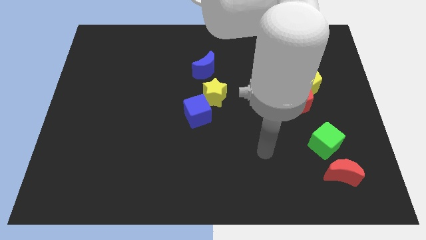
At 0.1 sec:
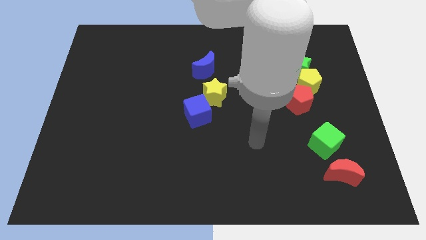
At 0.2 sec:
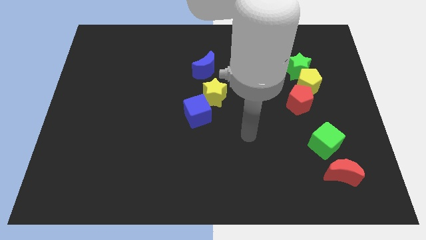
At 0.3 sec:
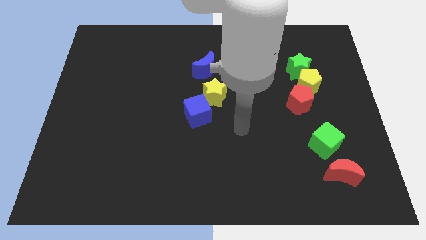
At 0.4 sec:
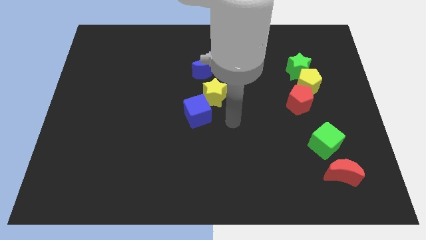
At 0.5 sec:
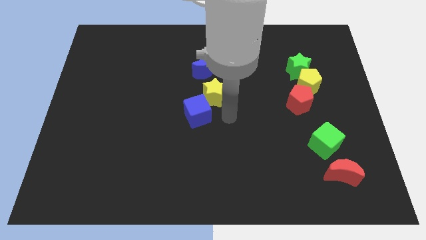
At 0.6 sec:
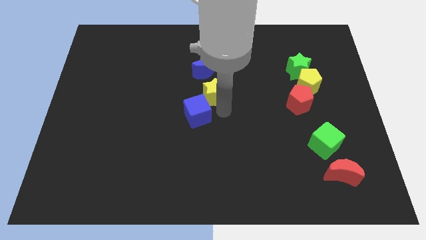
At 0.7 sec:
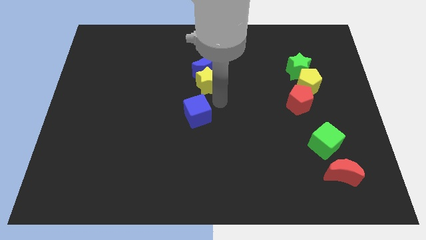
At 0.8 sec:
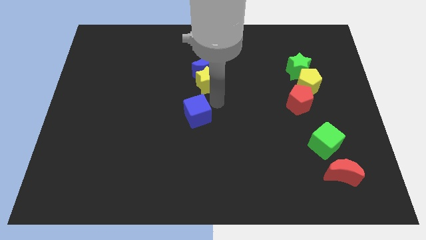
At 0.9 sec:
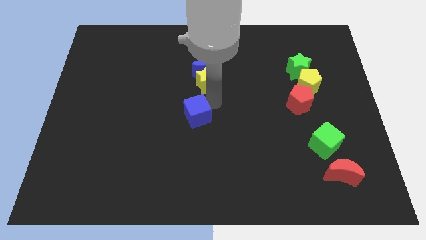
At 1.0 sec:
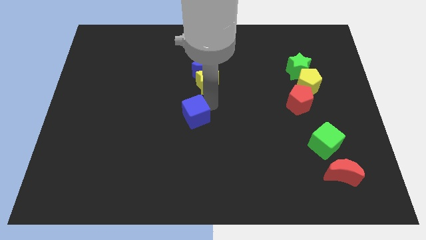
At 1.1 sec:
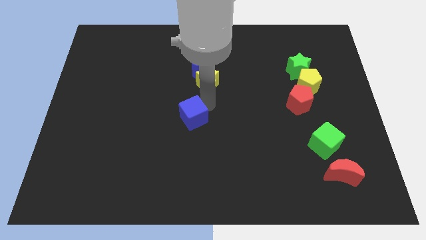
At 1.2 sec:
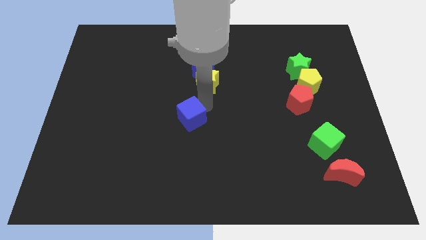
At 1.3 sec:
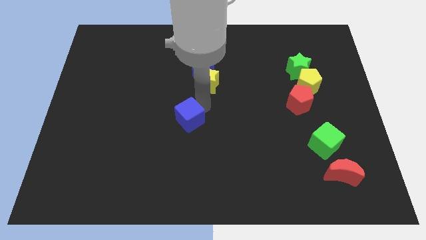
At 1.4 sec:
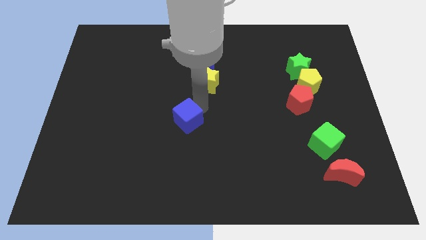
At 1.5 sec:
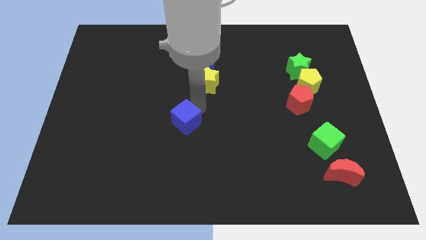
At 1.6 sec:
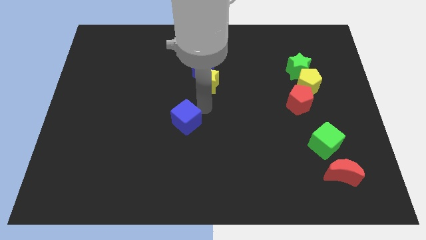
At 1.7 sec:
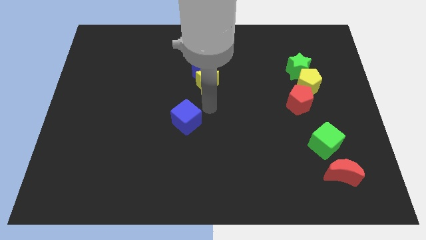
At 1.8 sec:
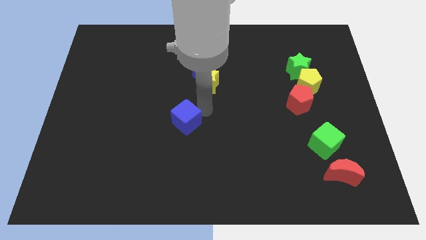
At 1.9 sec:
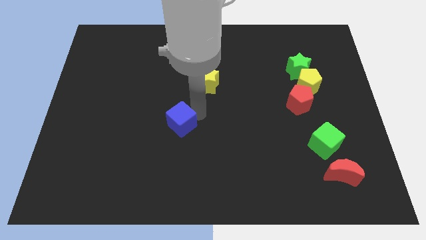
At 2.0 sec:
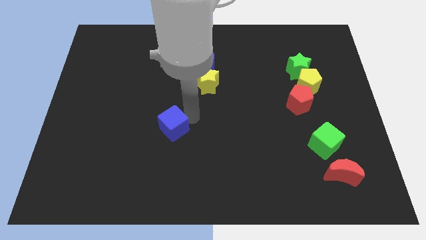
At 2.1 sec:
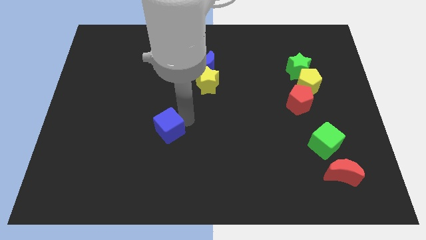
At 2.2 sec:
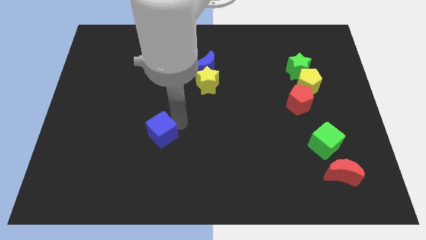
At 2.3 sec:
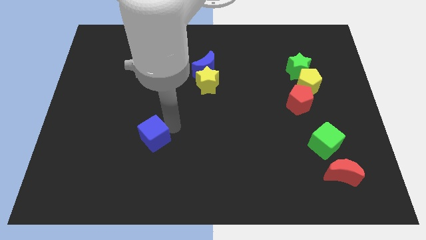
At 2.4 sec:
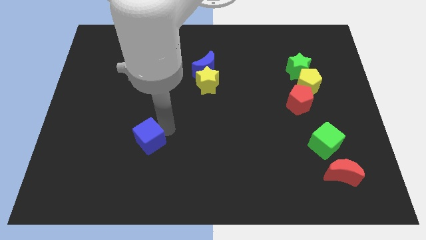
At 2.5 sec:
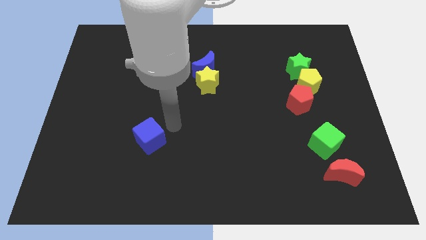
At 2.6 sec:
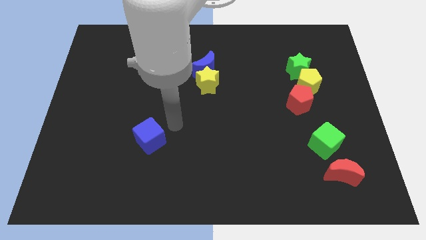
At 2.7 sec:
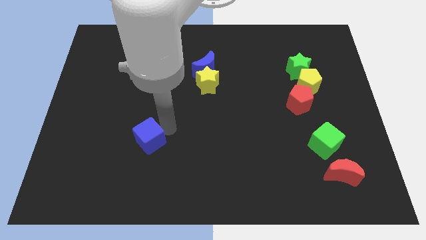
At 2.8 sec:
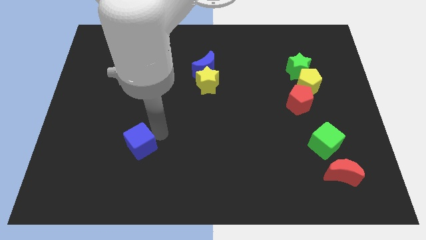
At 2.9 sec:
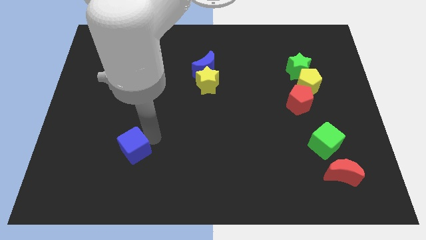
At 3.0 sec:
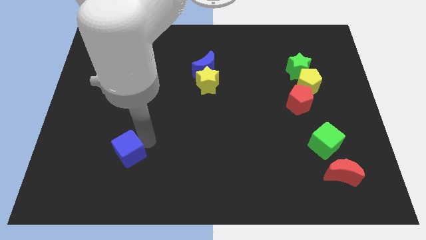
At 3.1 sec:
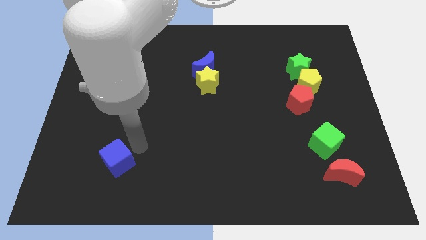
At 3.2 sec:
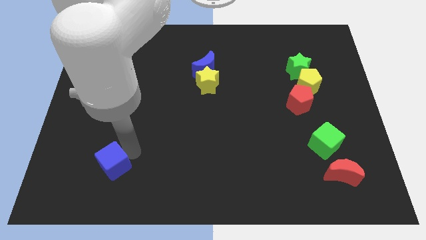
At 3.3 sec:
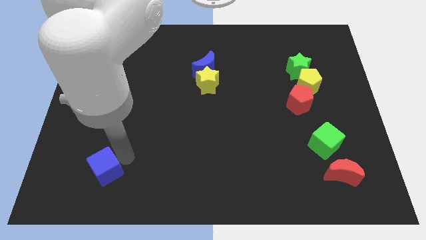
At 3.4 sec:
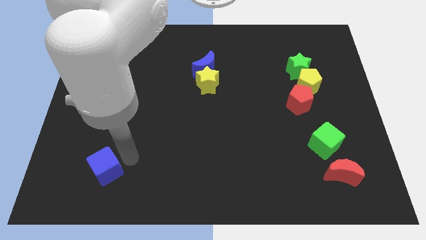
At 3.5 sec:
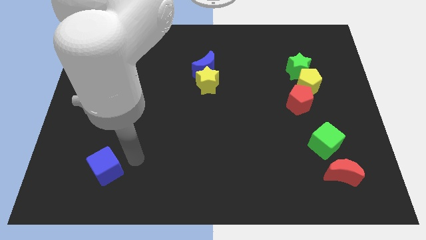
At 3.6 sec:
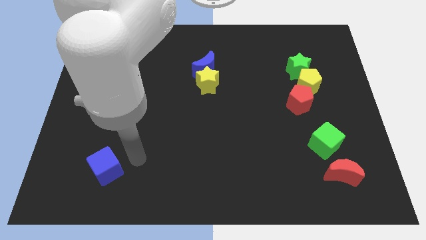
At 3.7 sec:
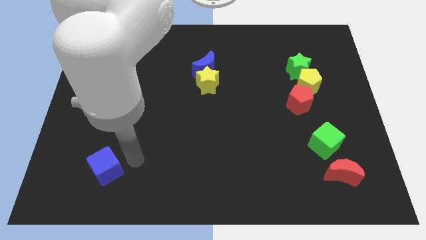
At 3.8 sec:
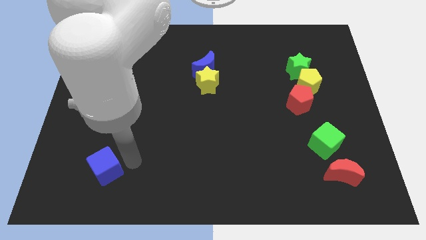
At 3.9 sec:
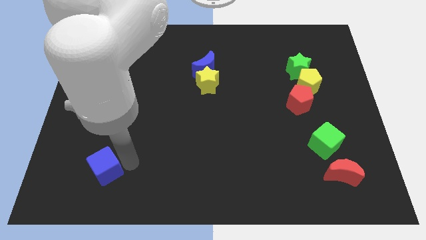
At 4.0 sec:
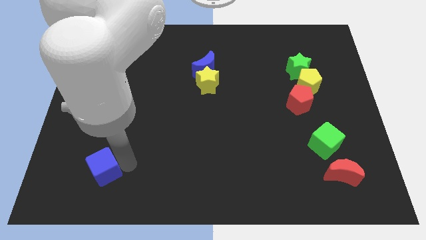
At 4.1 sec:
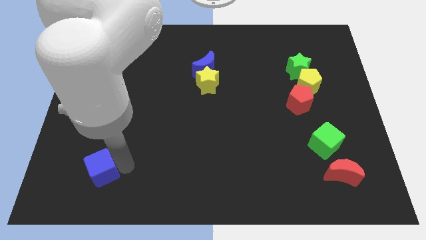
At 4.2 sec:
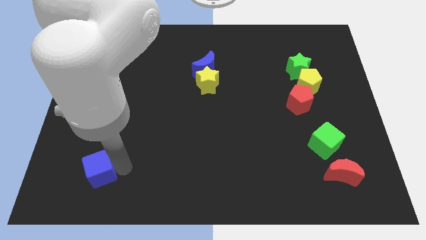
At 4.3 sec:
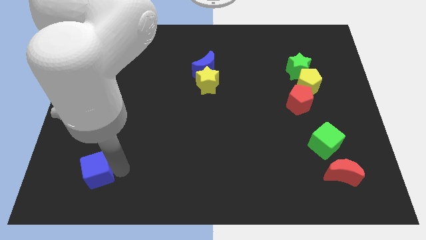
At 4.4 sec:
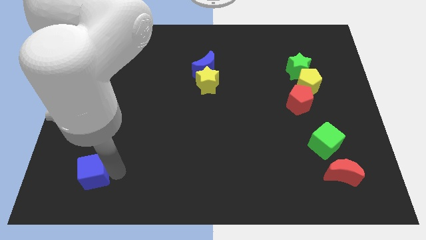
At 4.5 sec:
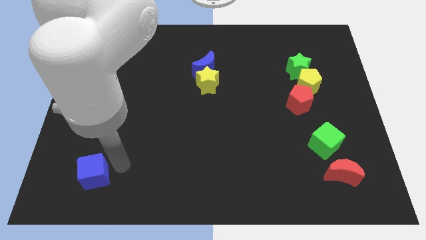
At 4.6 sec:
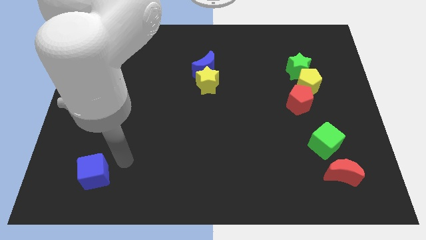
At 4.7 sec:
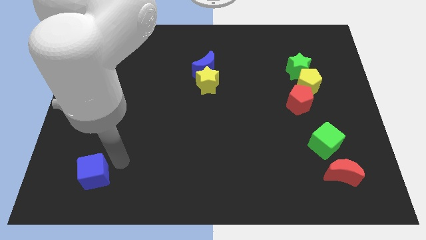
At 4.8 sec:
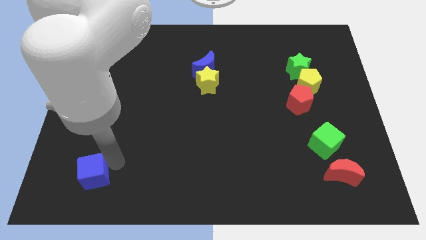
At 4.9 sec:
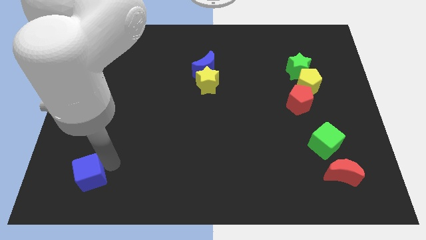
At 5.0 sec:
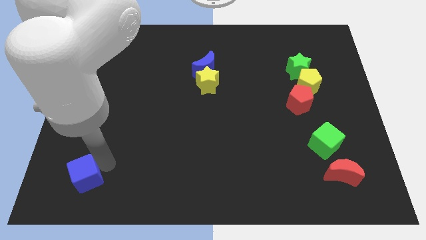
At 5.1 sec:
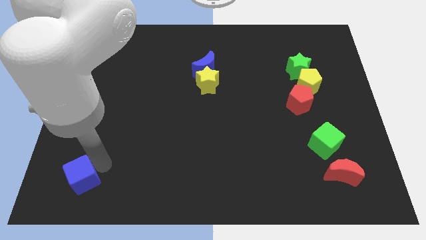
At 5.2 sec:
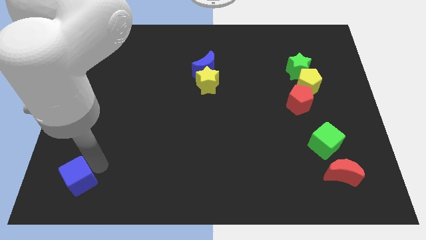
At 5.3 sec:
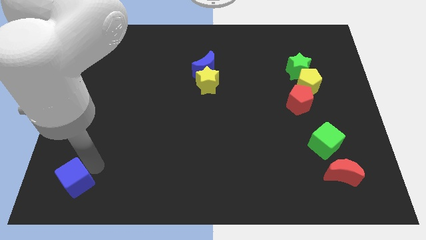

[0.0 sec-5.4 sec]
put the blue cube to the lower left corner

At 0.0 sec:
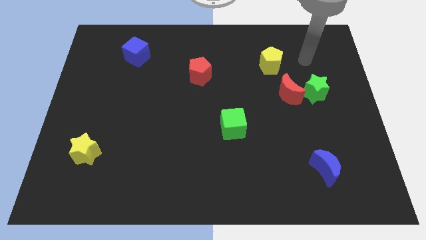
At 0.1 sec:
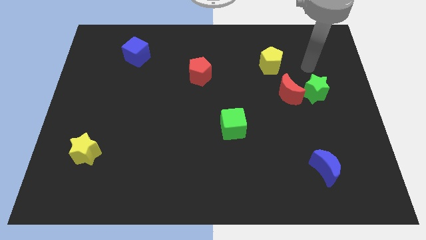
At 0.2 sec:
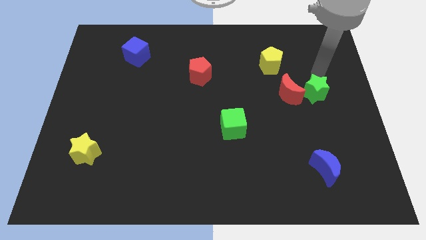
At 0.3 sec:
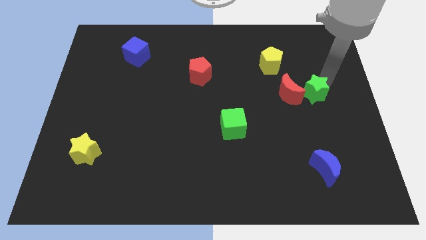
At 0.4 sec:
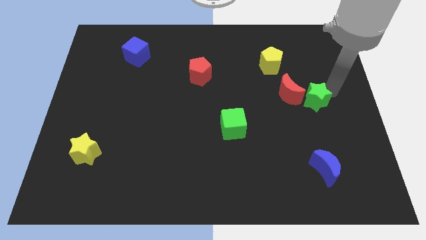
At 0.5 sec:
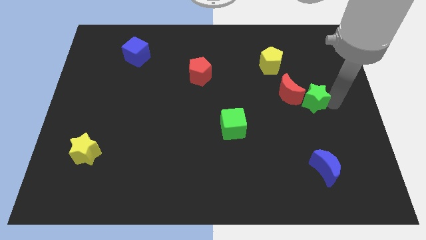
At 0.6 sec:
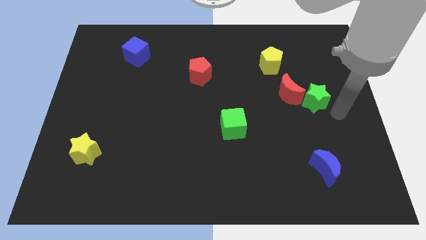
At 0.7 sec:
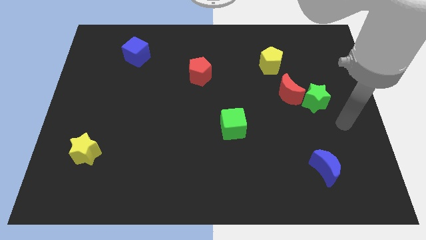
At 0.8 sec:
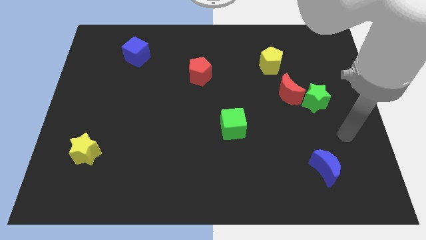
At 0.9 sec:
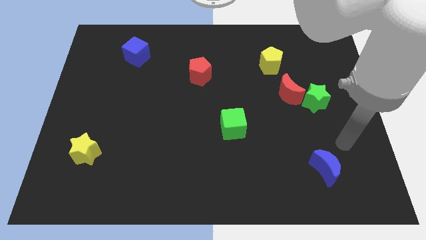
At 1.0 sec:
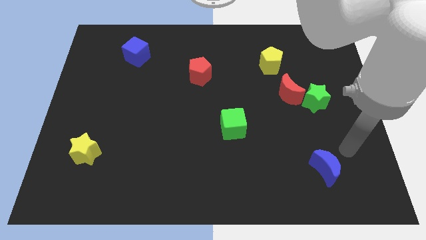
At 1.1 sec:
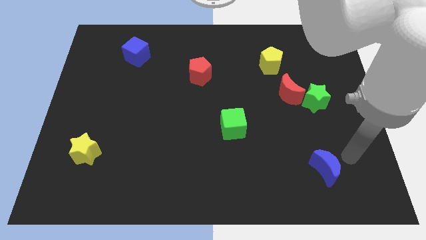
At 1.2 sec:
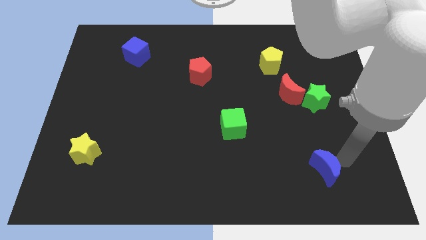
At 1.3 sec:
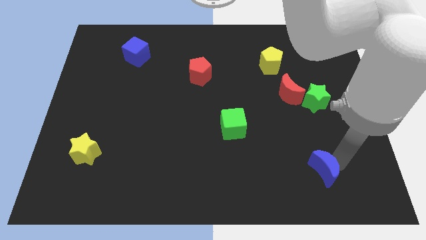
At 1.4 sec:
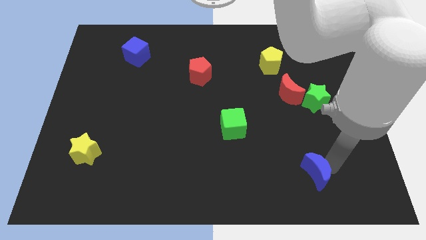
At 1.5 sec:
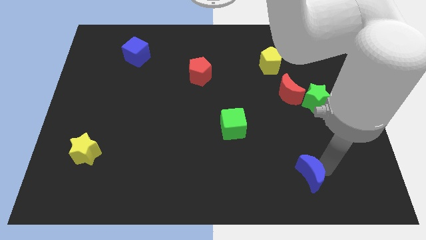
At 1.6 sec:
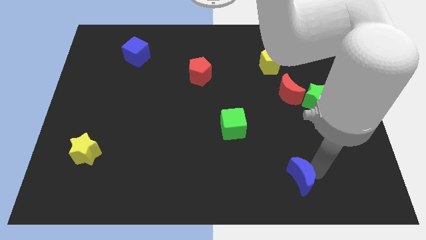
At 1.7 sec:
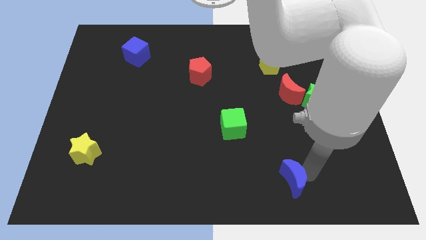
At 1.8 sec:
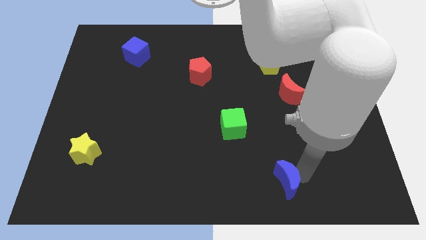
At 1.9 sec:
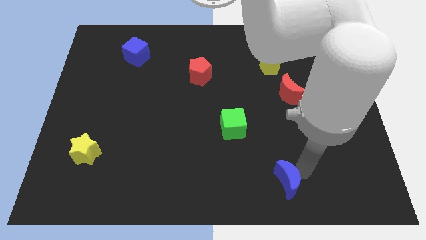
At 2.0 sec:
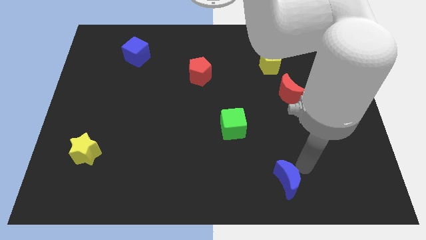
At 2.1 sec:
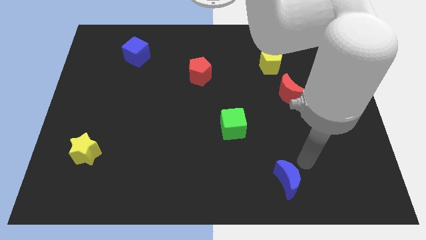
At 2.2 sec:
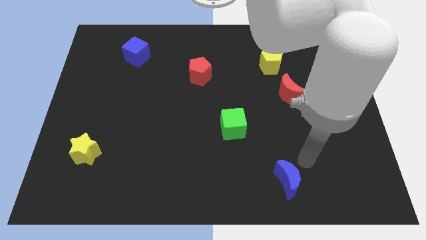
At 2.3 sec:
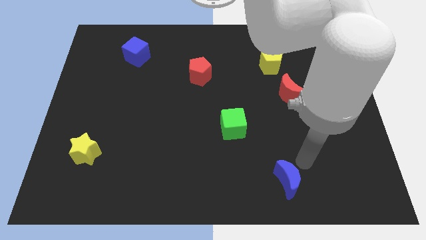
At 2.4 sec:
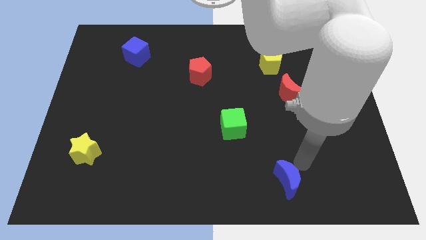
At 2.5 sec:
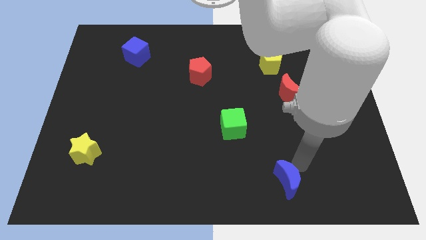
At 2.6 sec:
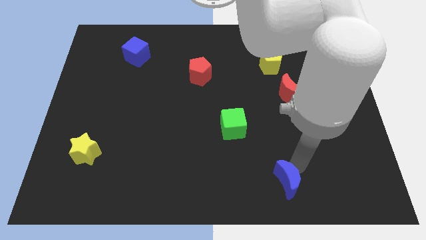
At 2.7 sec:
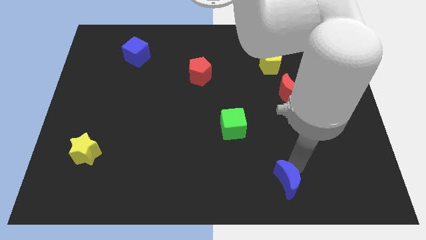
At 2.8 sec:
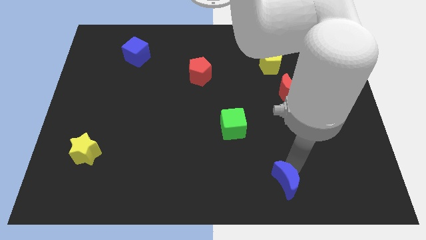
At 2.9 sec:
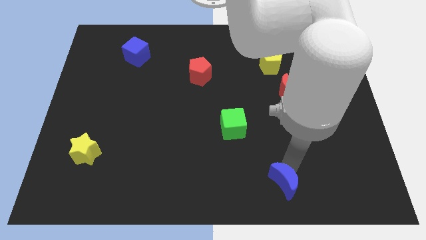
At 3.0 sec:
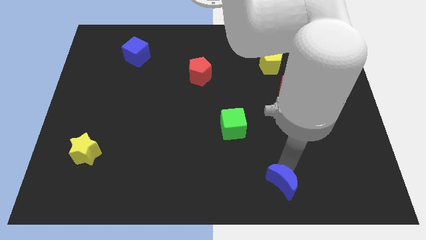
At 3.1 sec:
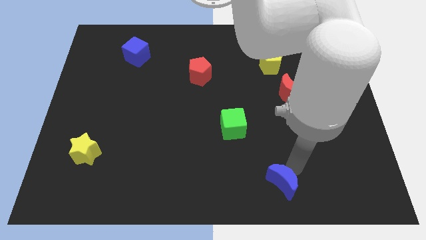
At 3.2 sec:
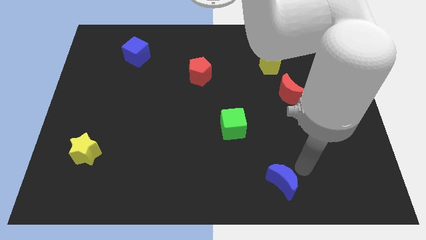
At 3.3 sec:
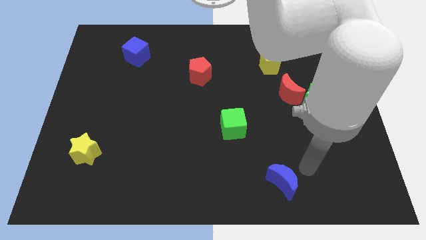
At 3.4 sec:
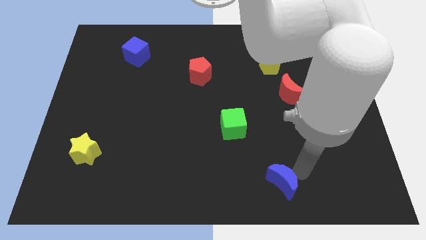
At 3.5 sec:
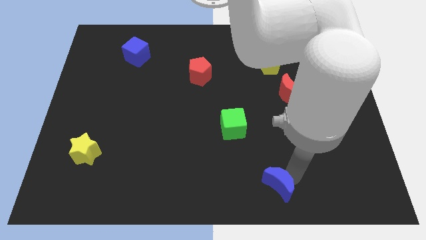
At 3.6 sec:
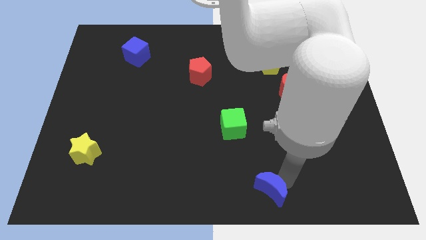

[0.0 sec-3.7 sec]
put the blue moon to the bottom
